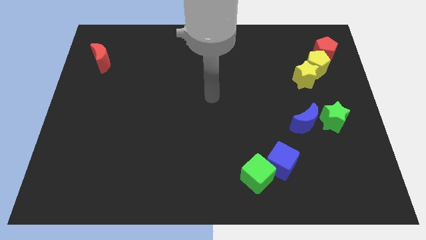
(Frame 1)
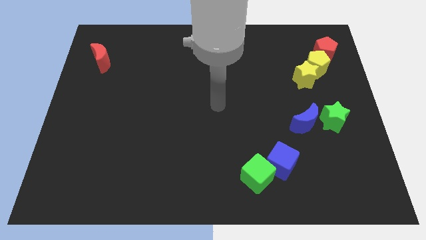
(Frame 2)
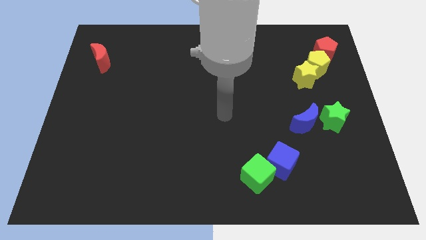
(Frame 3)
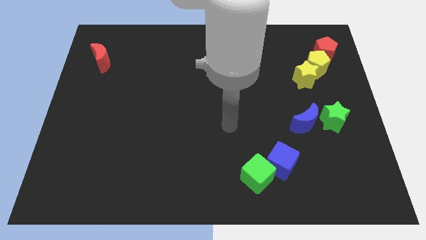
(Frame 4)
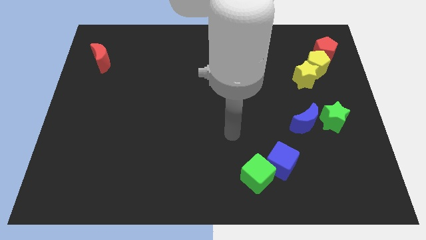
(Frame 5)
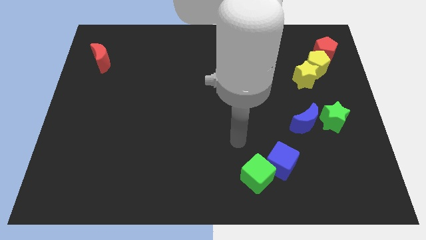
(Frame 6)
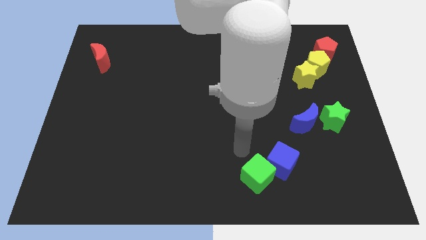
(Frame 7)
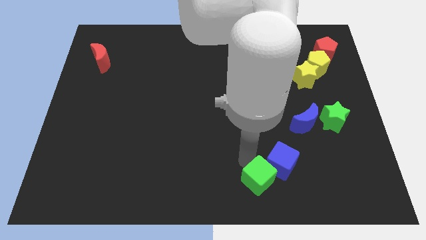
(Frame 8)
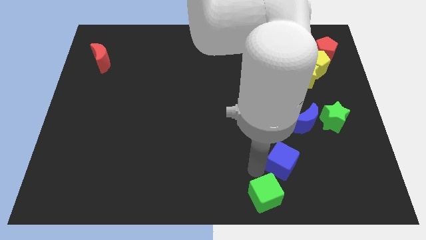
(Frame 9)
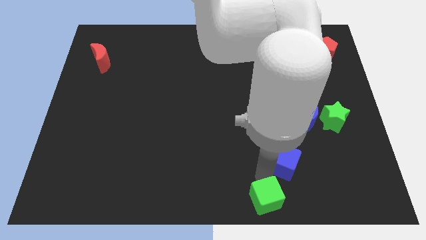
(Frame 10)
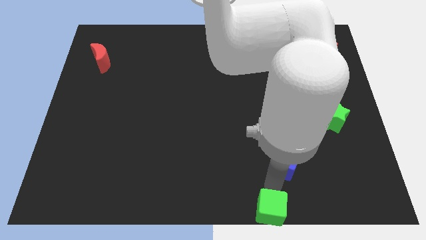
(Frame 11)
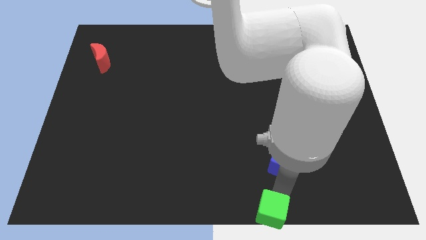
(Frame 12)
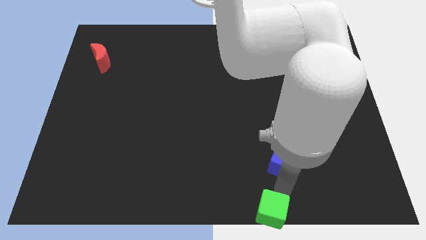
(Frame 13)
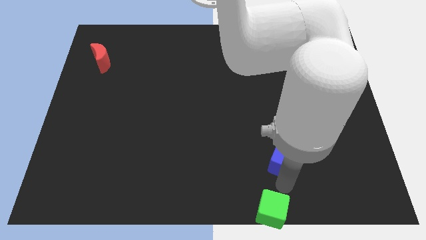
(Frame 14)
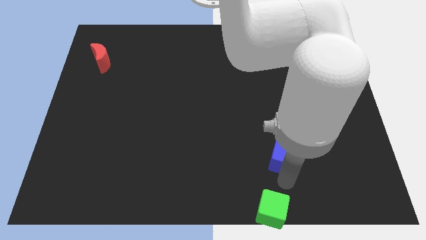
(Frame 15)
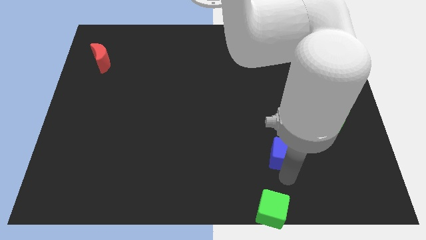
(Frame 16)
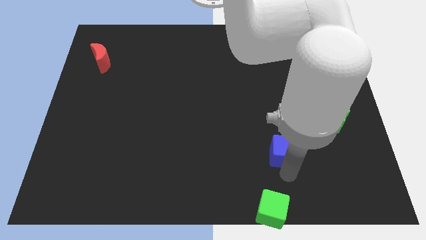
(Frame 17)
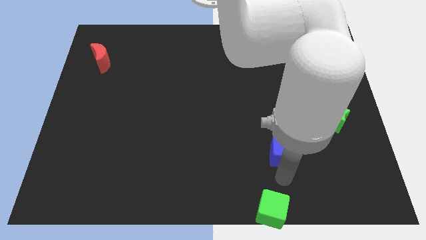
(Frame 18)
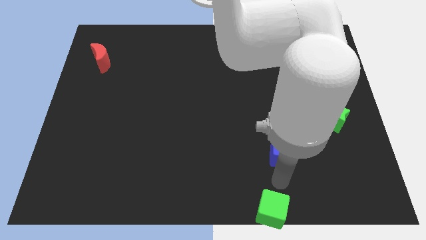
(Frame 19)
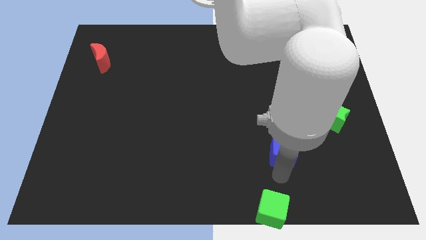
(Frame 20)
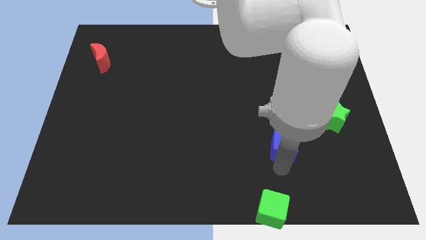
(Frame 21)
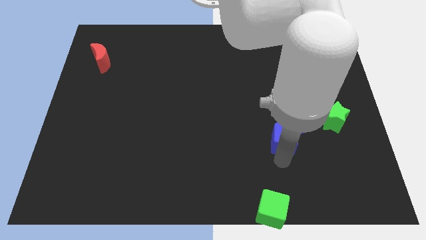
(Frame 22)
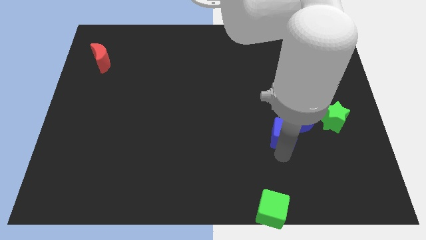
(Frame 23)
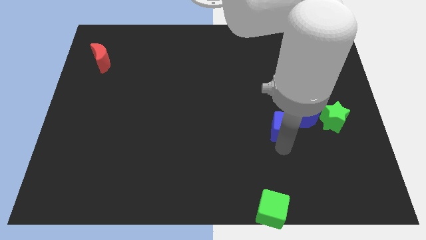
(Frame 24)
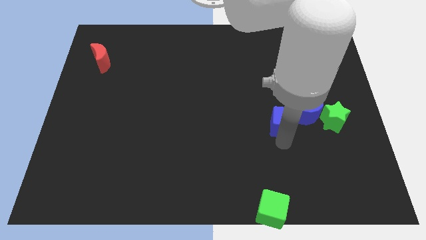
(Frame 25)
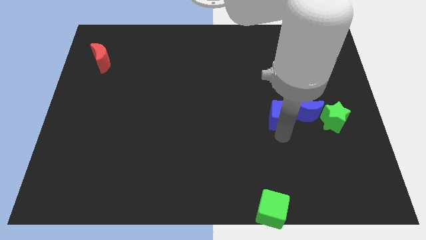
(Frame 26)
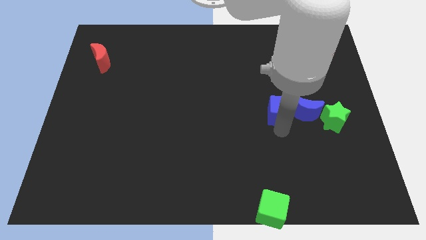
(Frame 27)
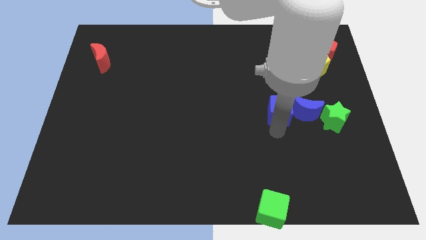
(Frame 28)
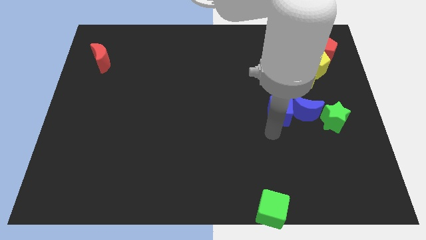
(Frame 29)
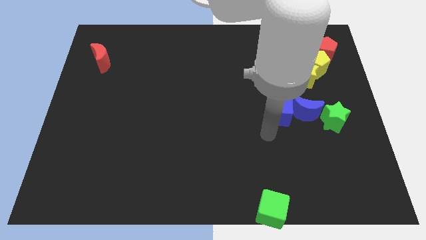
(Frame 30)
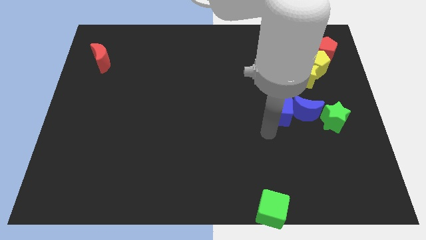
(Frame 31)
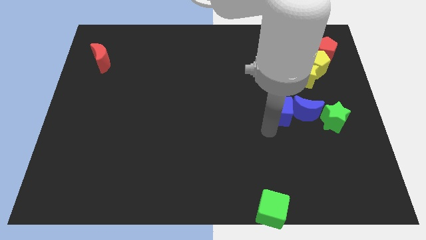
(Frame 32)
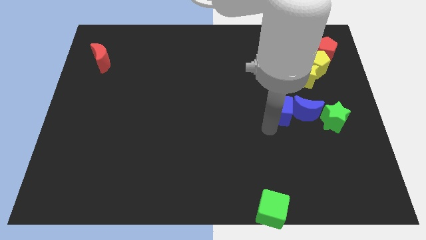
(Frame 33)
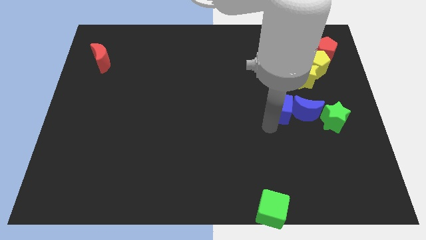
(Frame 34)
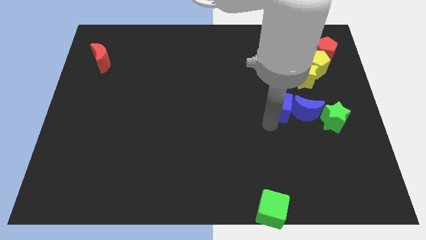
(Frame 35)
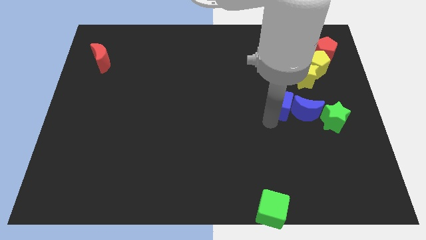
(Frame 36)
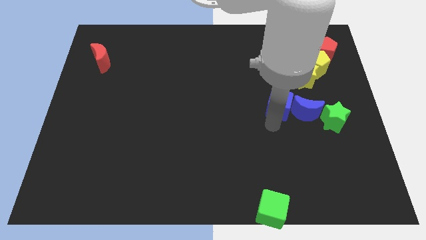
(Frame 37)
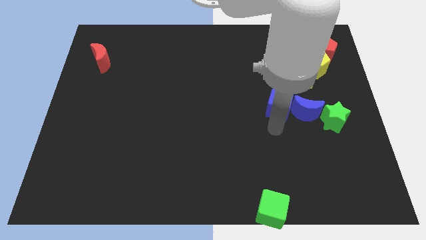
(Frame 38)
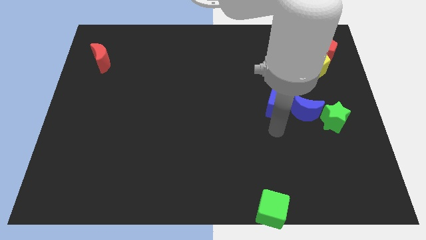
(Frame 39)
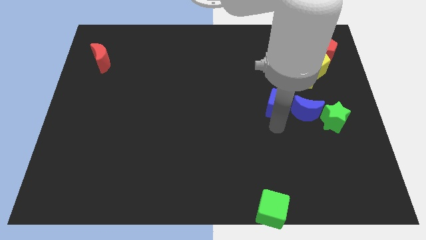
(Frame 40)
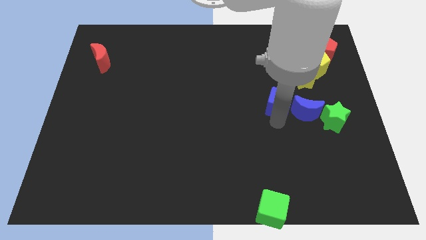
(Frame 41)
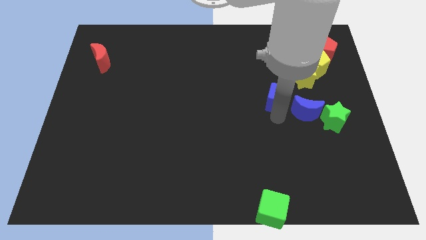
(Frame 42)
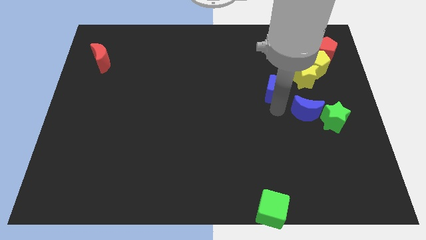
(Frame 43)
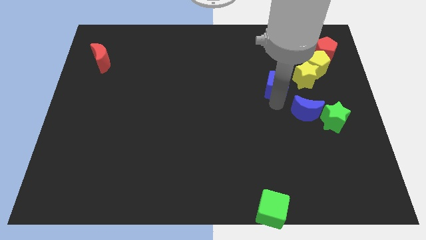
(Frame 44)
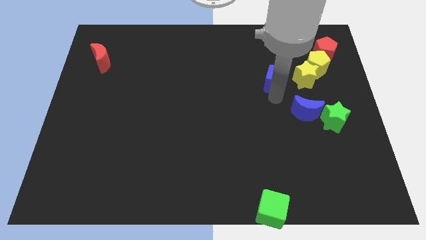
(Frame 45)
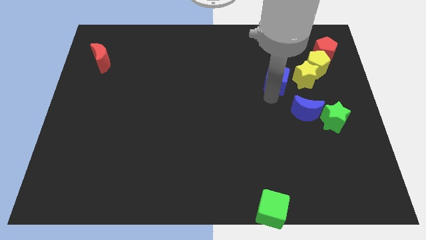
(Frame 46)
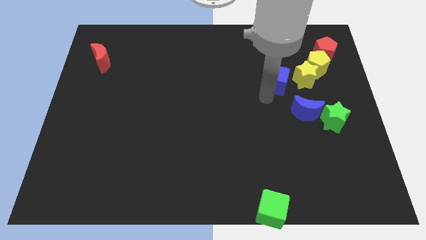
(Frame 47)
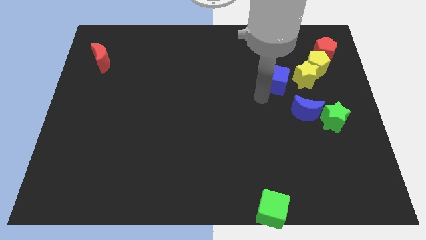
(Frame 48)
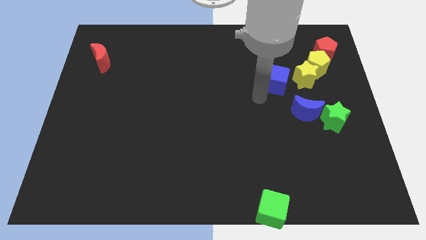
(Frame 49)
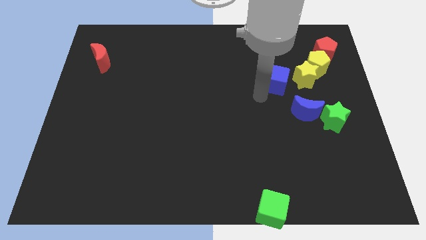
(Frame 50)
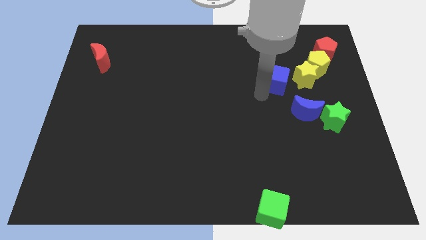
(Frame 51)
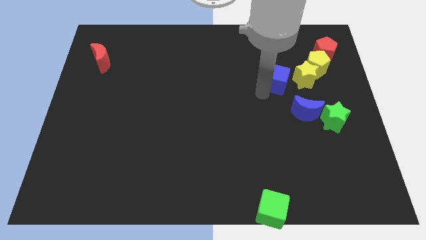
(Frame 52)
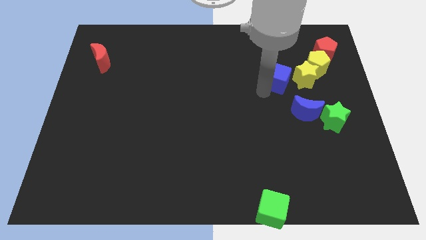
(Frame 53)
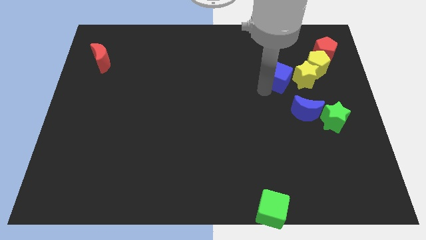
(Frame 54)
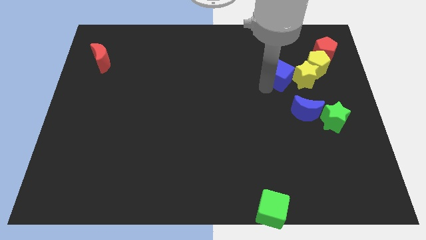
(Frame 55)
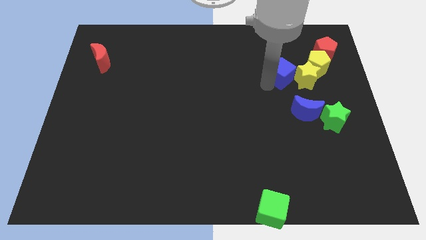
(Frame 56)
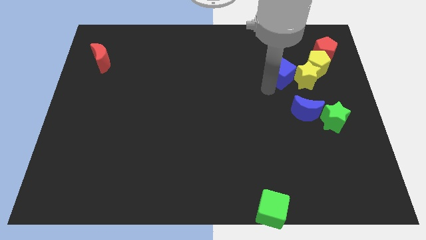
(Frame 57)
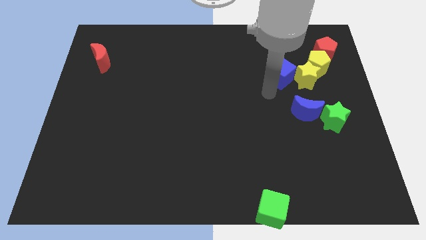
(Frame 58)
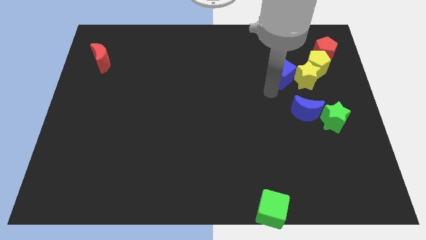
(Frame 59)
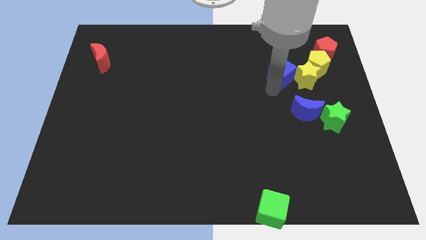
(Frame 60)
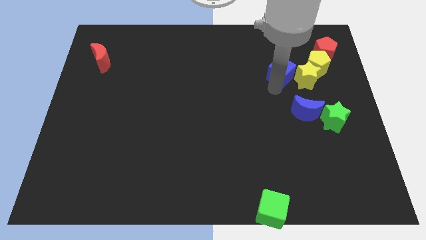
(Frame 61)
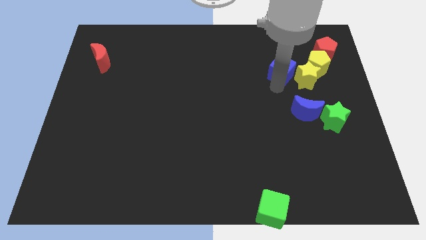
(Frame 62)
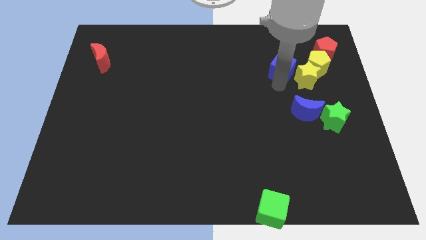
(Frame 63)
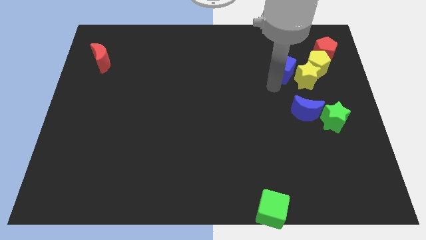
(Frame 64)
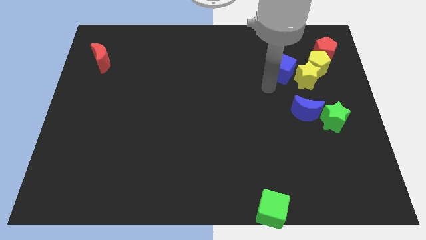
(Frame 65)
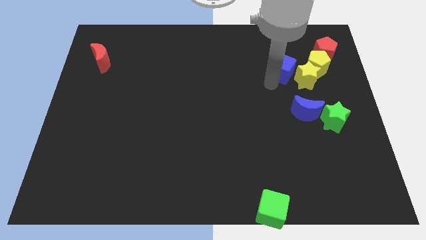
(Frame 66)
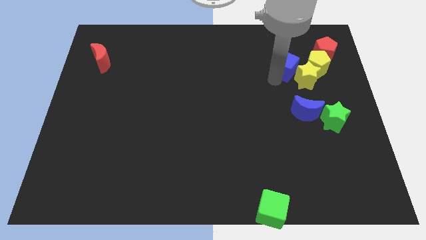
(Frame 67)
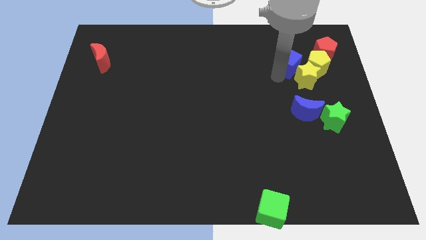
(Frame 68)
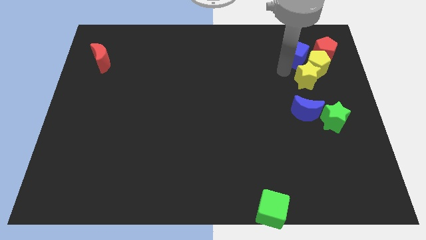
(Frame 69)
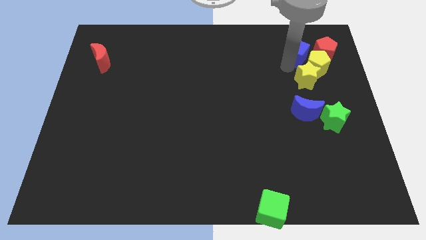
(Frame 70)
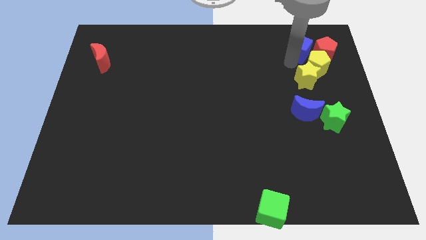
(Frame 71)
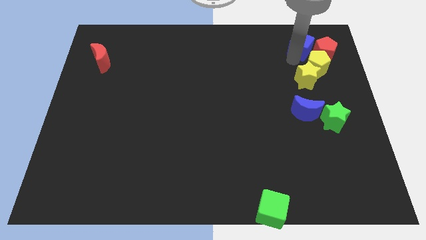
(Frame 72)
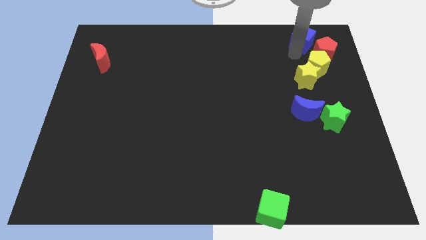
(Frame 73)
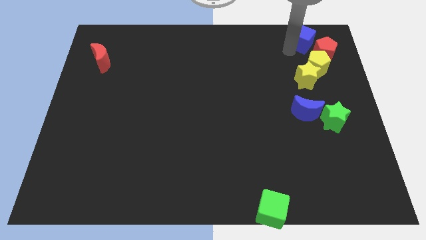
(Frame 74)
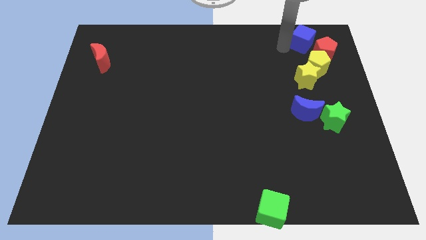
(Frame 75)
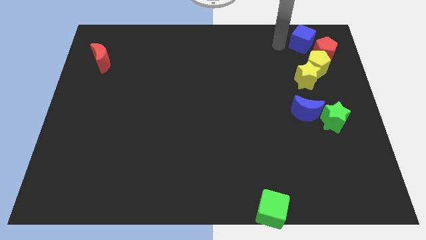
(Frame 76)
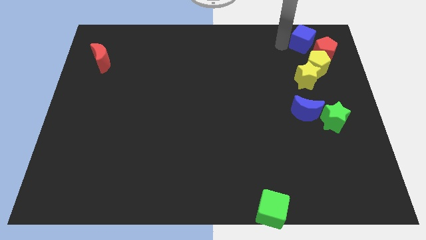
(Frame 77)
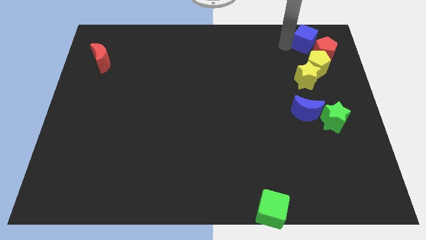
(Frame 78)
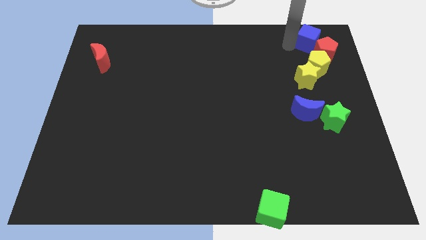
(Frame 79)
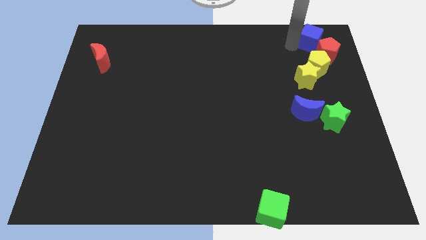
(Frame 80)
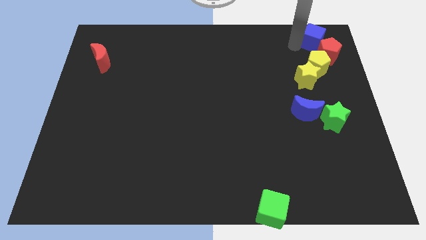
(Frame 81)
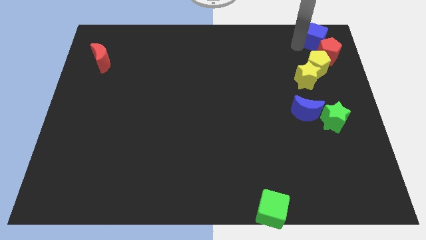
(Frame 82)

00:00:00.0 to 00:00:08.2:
push the blue cube to the top right
